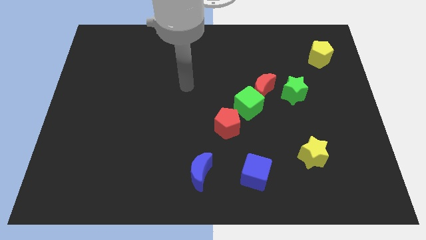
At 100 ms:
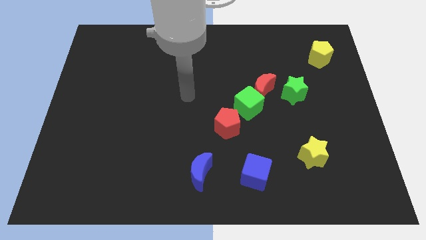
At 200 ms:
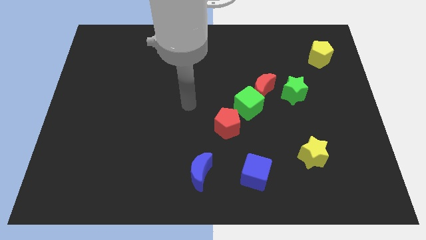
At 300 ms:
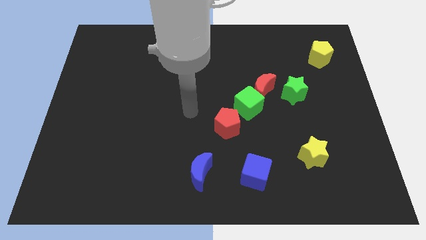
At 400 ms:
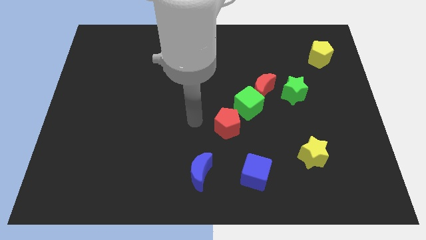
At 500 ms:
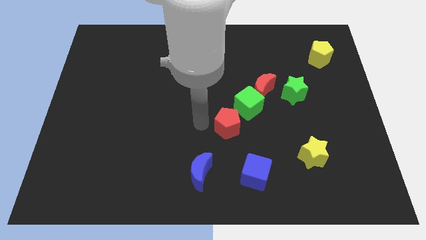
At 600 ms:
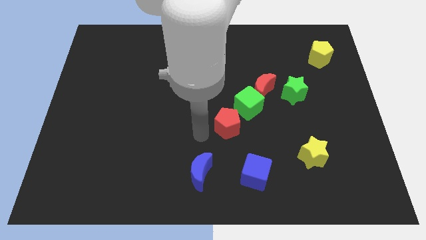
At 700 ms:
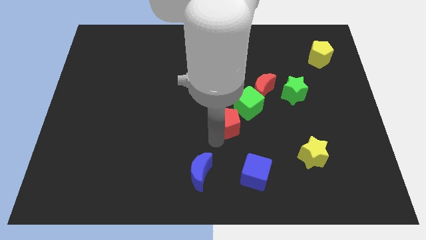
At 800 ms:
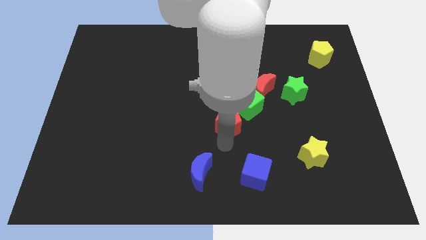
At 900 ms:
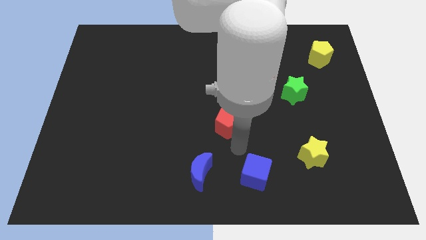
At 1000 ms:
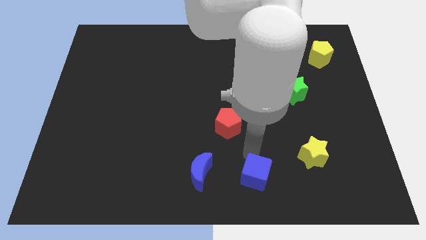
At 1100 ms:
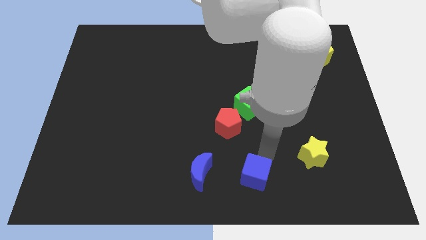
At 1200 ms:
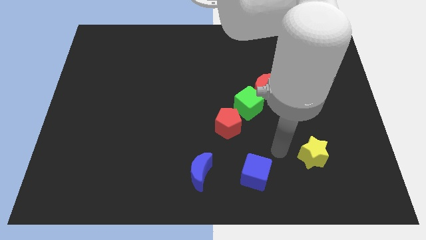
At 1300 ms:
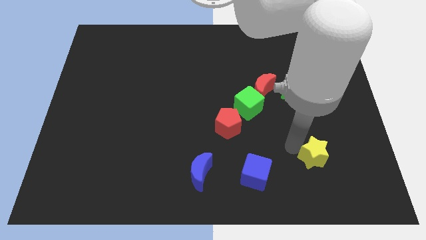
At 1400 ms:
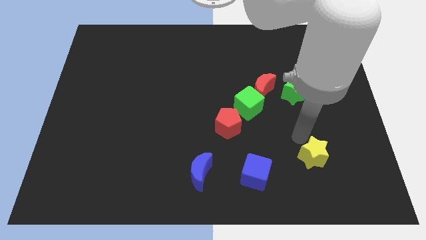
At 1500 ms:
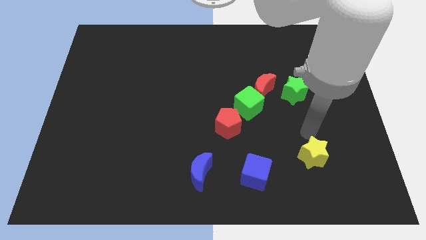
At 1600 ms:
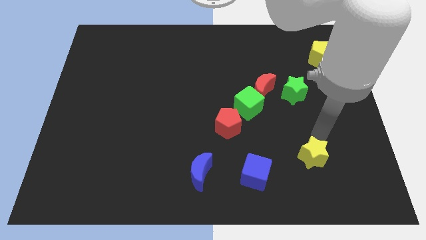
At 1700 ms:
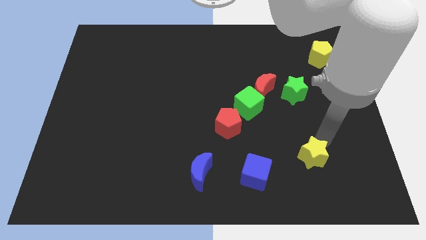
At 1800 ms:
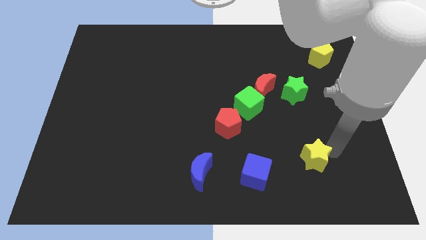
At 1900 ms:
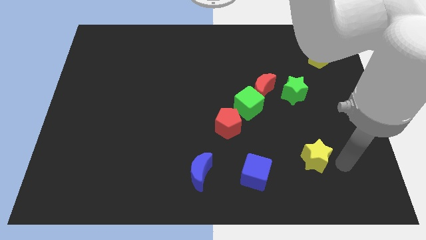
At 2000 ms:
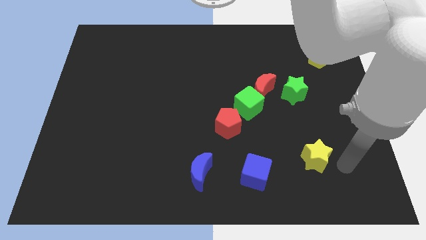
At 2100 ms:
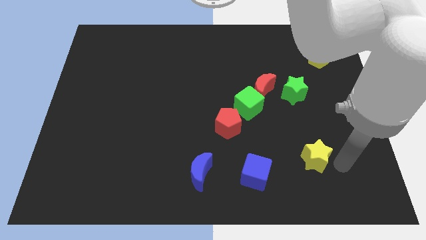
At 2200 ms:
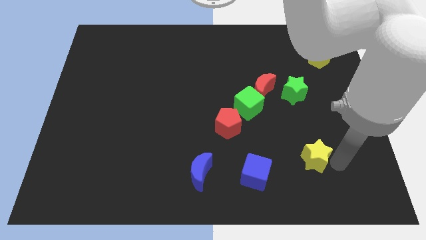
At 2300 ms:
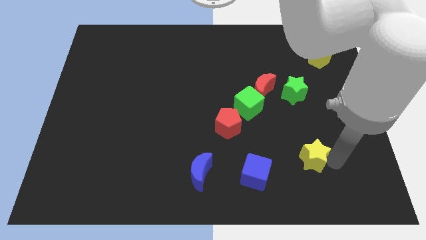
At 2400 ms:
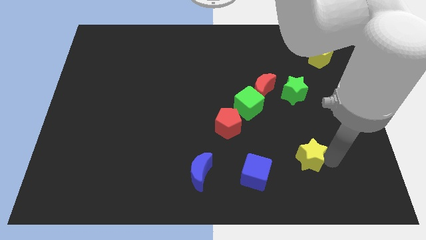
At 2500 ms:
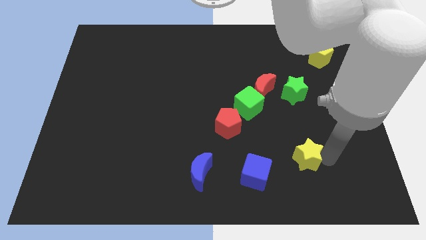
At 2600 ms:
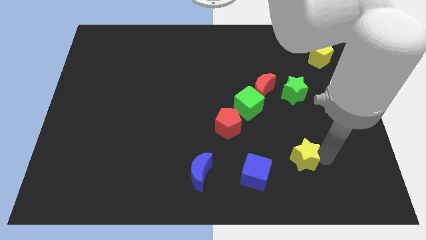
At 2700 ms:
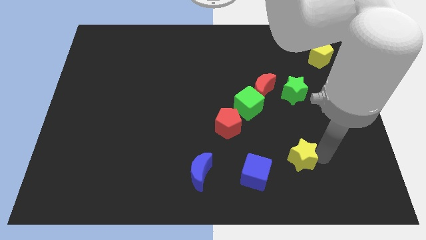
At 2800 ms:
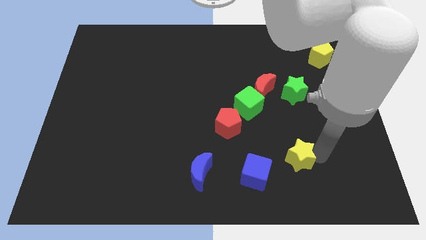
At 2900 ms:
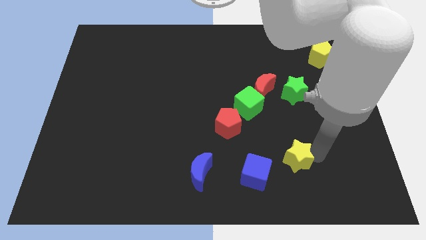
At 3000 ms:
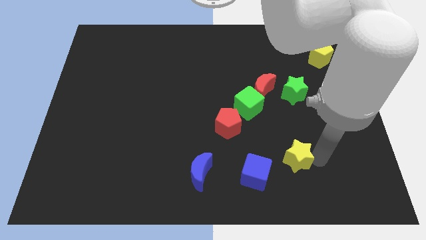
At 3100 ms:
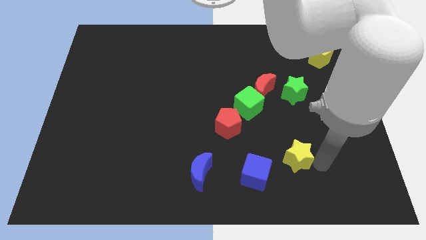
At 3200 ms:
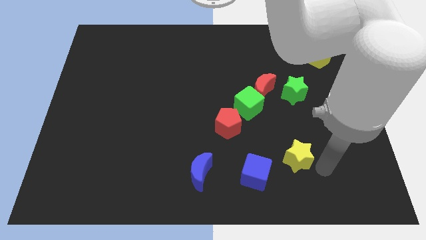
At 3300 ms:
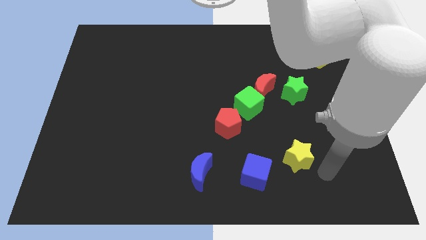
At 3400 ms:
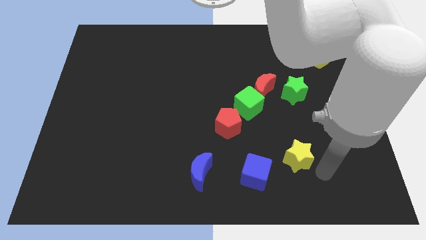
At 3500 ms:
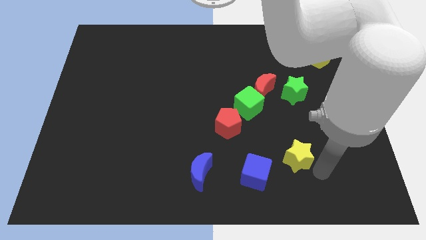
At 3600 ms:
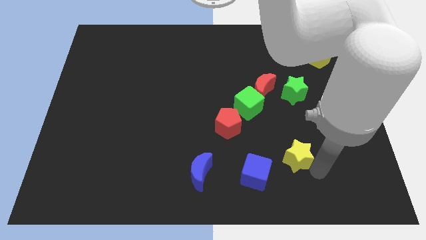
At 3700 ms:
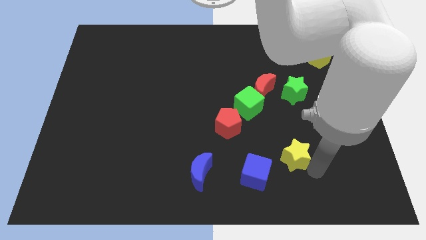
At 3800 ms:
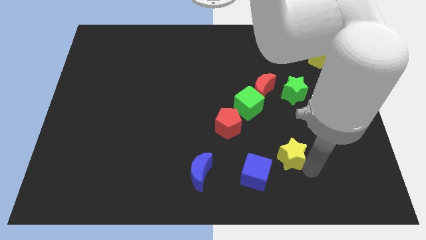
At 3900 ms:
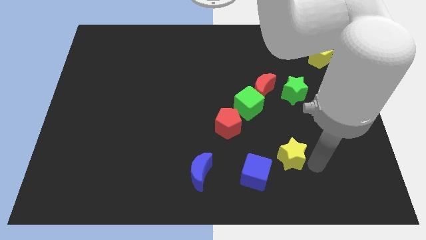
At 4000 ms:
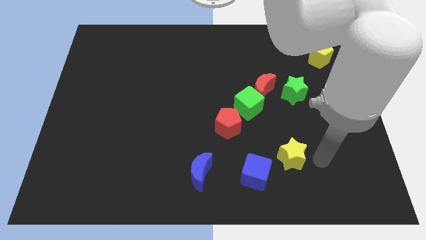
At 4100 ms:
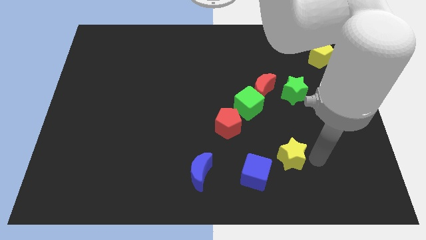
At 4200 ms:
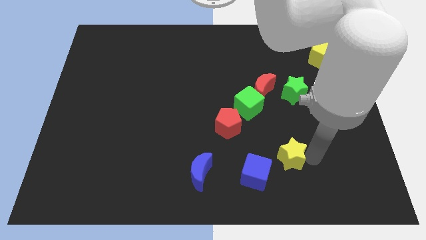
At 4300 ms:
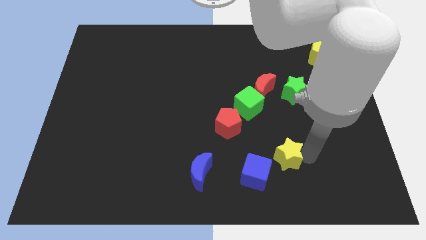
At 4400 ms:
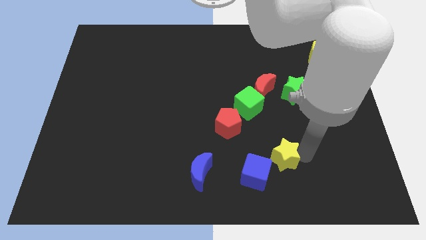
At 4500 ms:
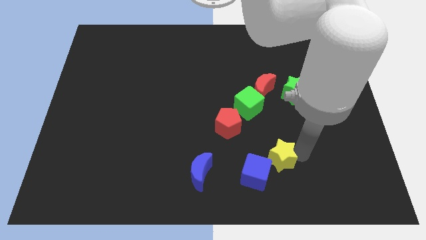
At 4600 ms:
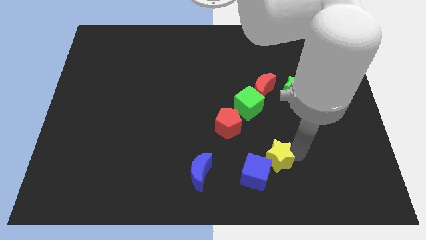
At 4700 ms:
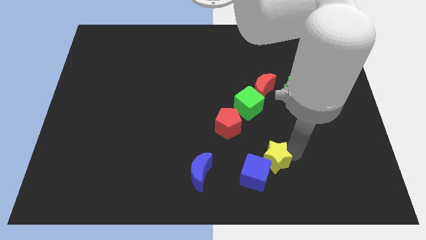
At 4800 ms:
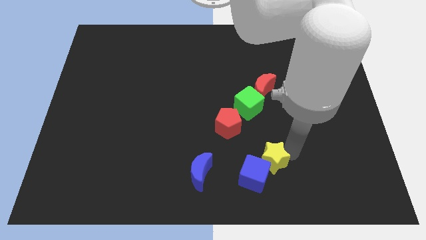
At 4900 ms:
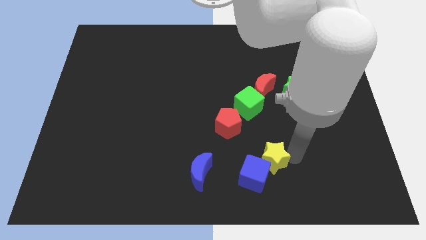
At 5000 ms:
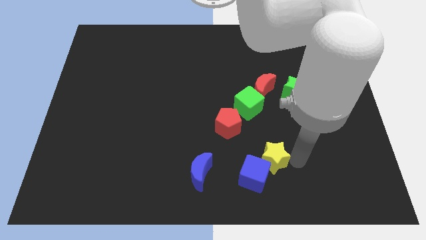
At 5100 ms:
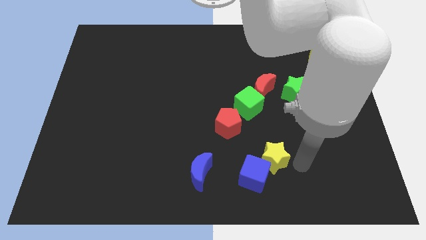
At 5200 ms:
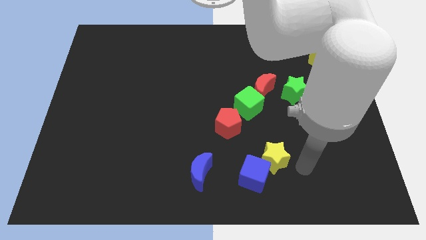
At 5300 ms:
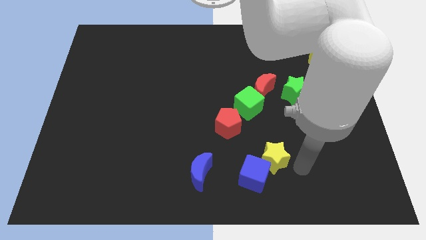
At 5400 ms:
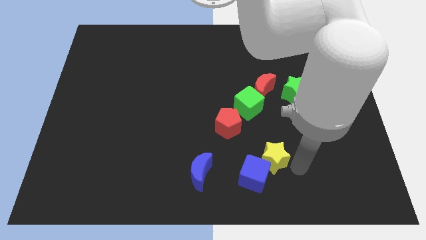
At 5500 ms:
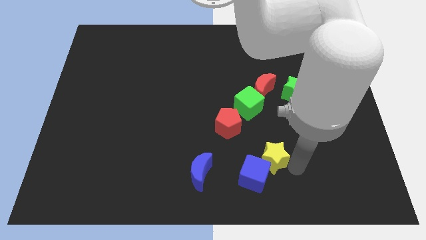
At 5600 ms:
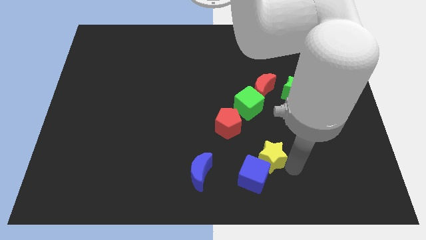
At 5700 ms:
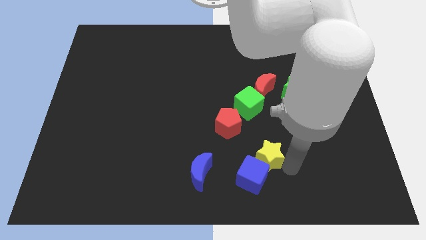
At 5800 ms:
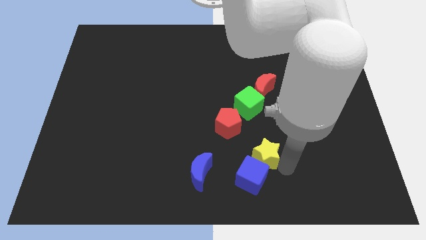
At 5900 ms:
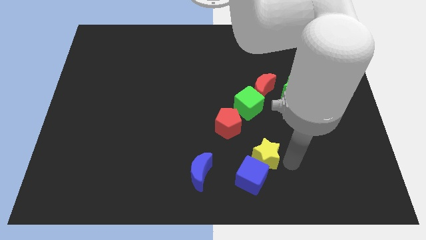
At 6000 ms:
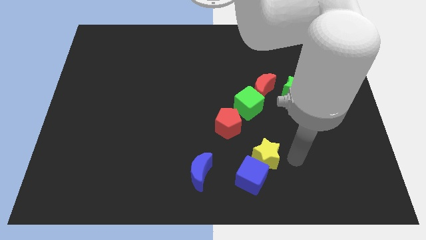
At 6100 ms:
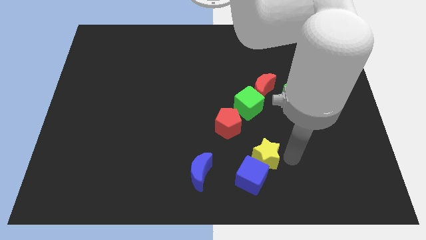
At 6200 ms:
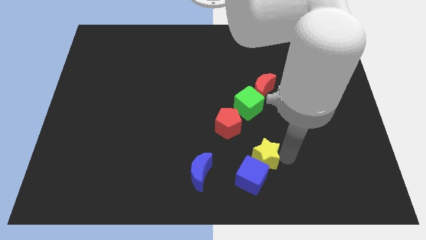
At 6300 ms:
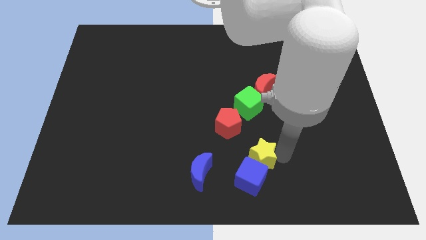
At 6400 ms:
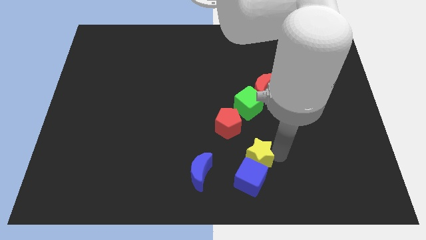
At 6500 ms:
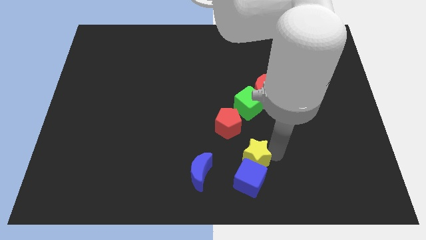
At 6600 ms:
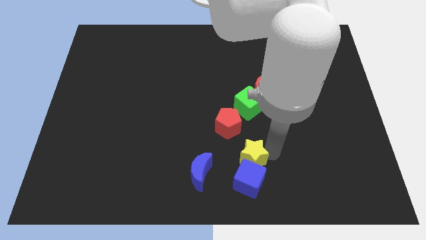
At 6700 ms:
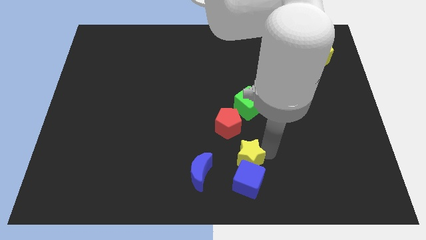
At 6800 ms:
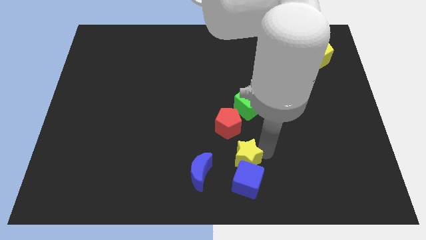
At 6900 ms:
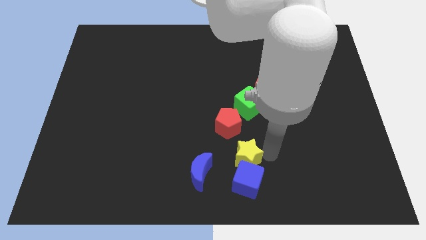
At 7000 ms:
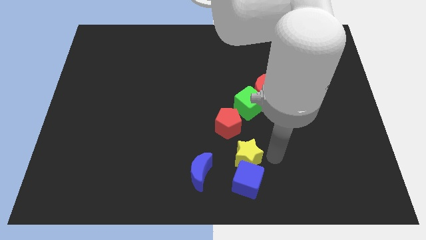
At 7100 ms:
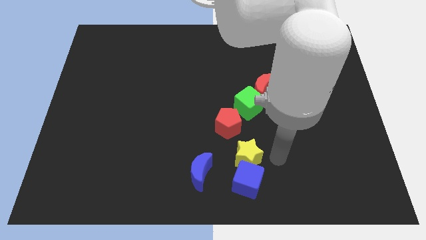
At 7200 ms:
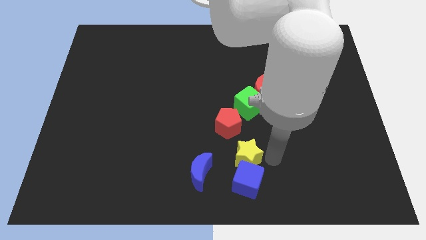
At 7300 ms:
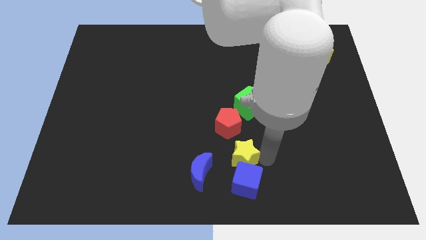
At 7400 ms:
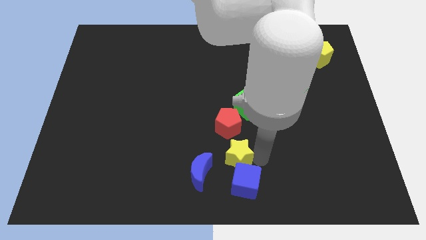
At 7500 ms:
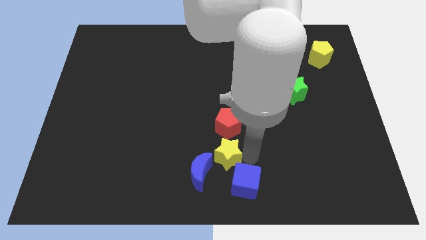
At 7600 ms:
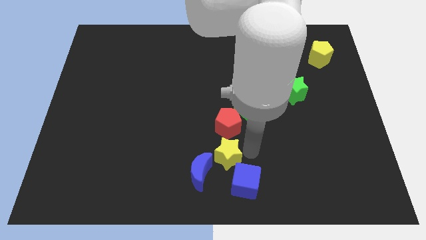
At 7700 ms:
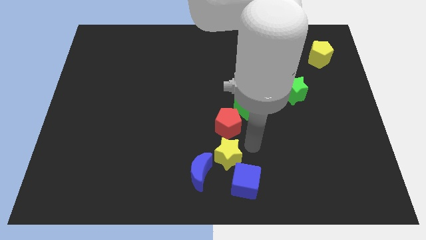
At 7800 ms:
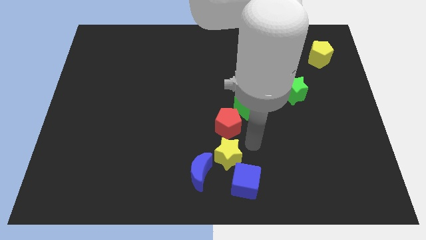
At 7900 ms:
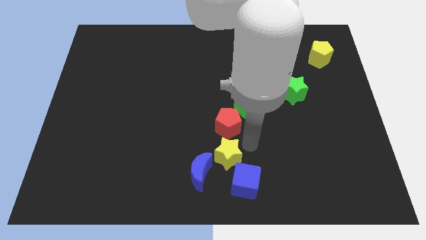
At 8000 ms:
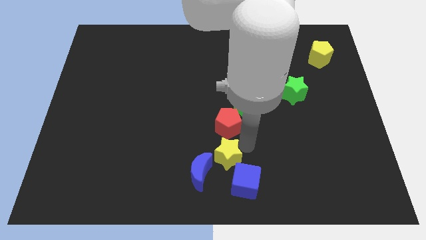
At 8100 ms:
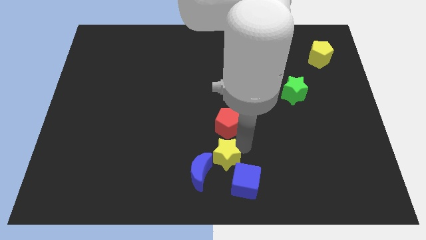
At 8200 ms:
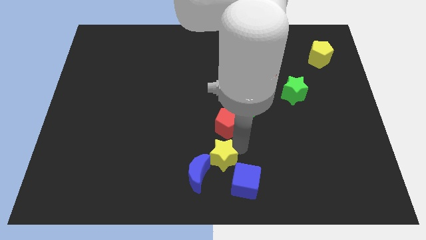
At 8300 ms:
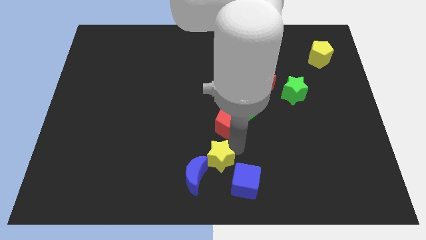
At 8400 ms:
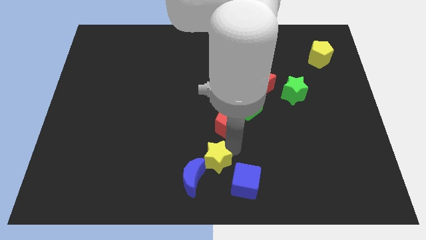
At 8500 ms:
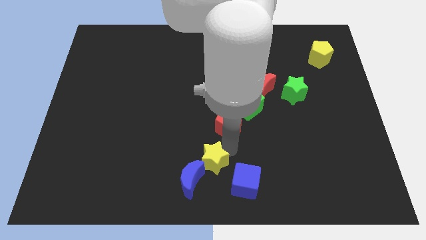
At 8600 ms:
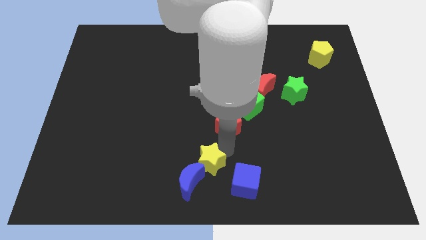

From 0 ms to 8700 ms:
put the yellow star to the blue moon
